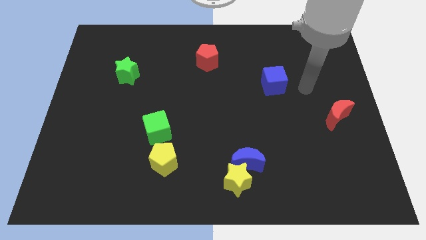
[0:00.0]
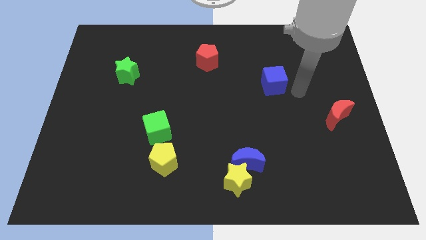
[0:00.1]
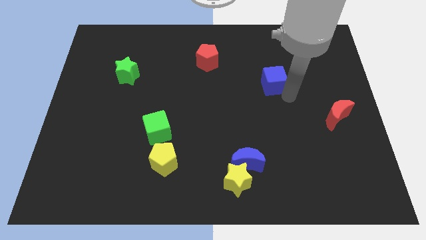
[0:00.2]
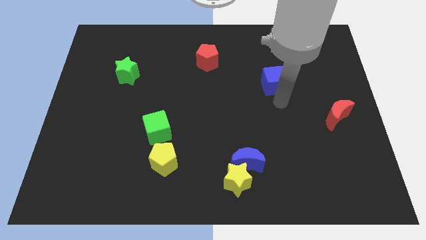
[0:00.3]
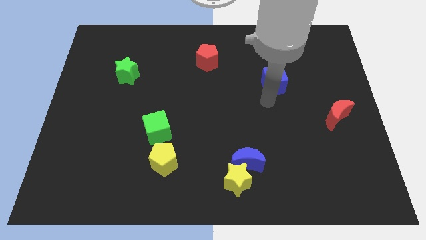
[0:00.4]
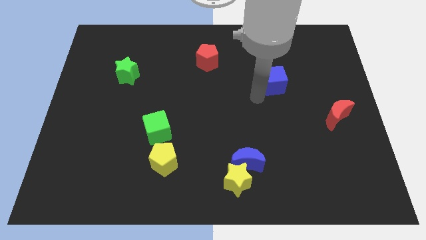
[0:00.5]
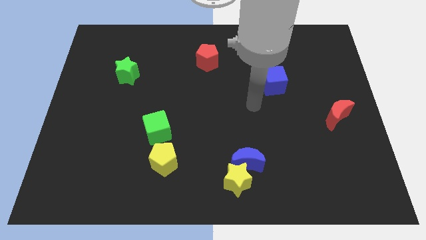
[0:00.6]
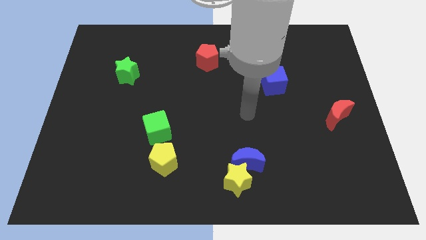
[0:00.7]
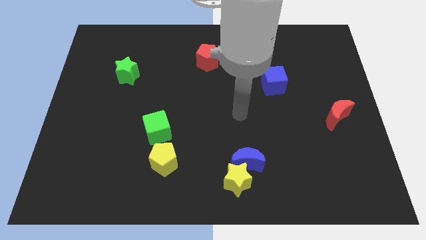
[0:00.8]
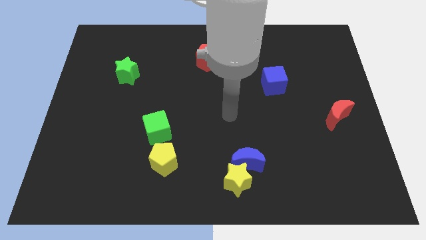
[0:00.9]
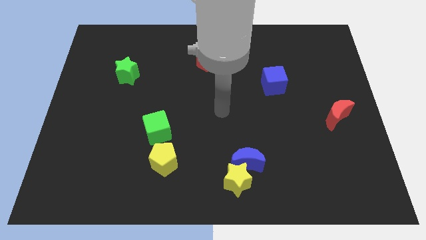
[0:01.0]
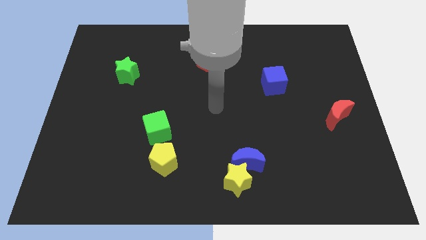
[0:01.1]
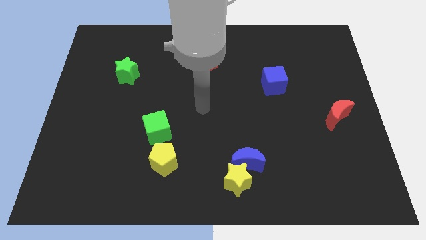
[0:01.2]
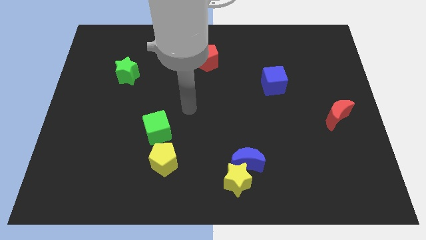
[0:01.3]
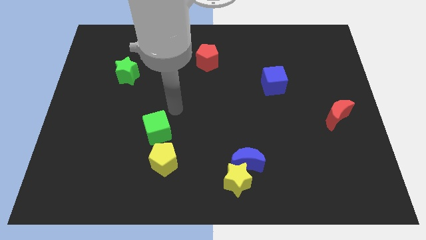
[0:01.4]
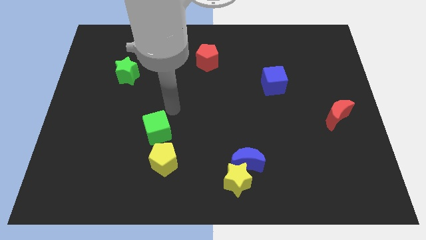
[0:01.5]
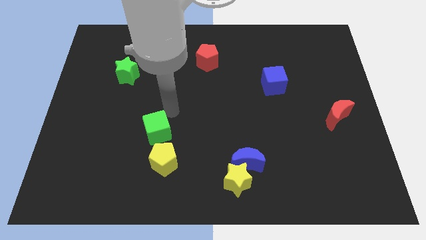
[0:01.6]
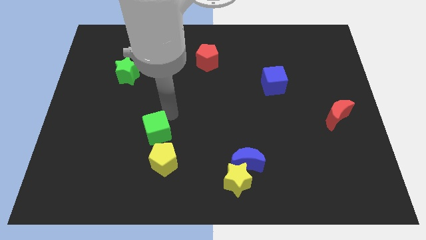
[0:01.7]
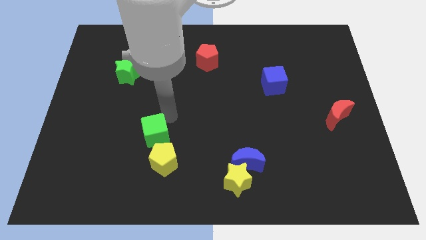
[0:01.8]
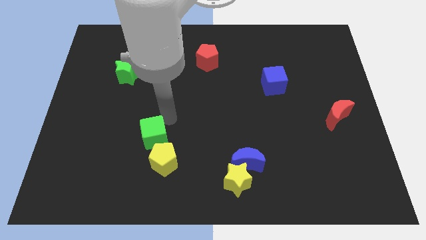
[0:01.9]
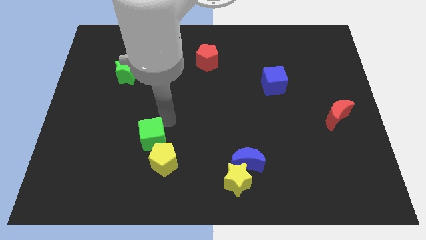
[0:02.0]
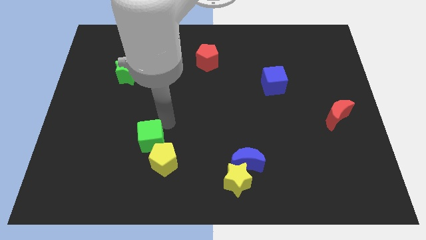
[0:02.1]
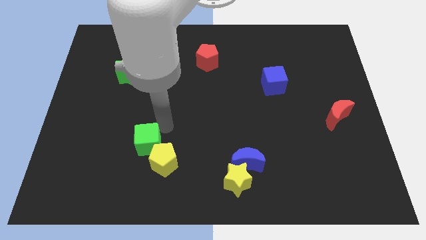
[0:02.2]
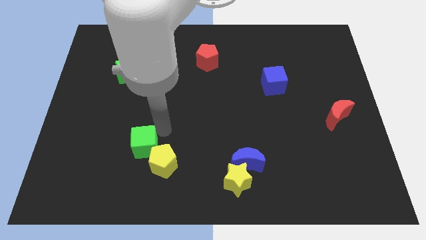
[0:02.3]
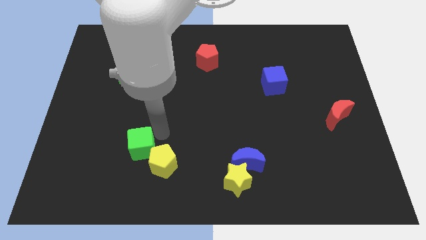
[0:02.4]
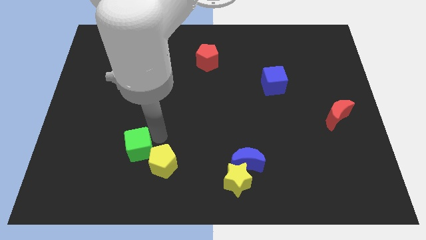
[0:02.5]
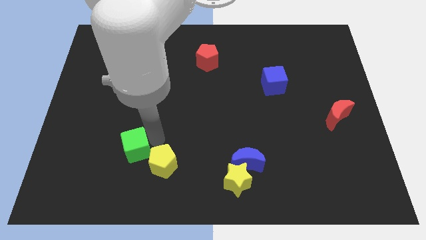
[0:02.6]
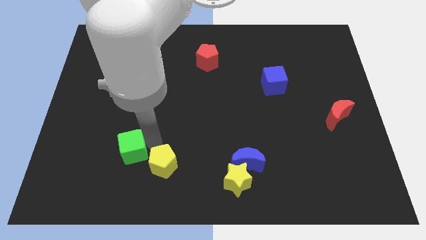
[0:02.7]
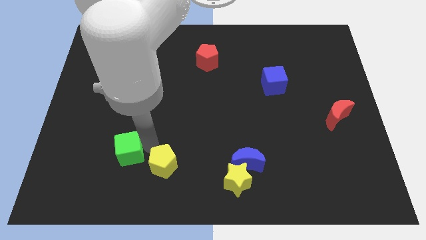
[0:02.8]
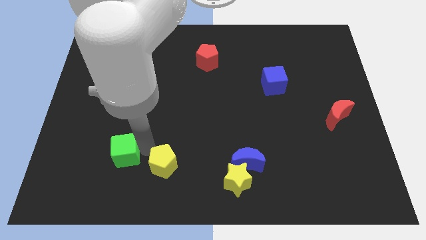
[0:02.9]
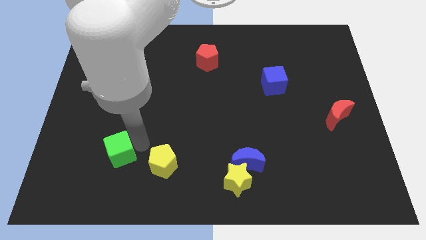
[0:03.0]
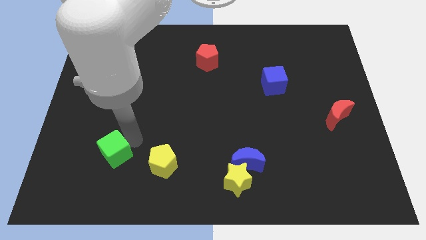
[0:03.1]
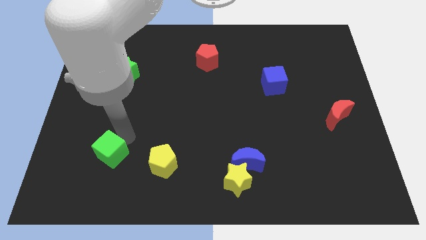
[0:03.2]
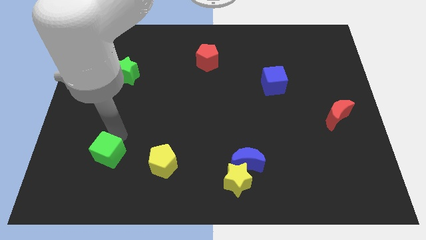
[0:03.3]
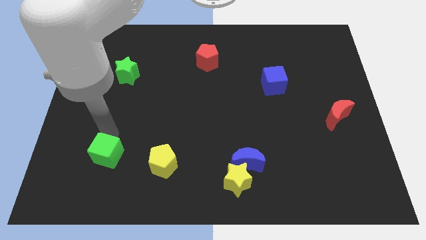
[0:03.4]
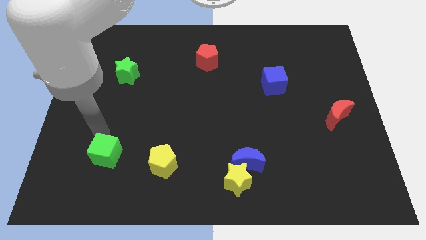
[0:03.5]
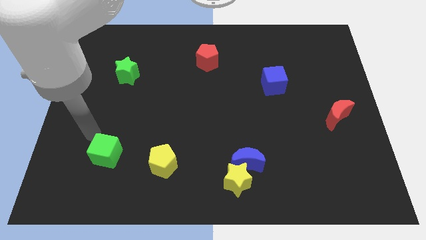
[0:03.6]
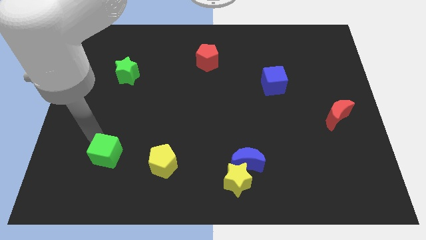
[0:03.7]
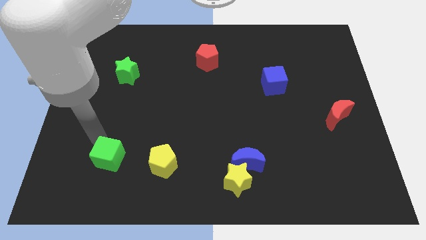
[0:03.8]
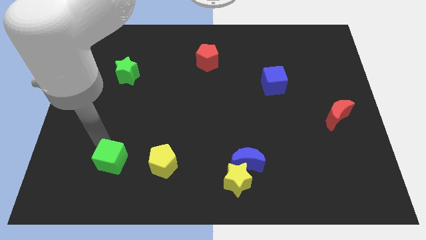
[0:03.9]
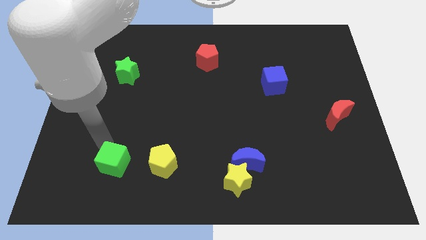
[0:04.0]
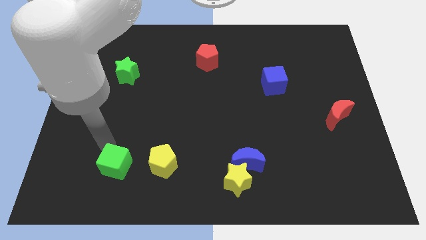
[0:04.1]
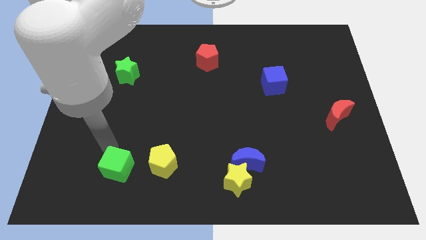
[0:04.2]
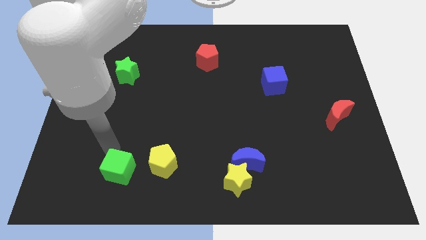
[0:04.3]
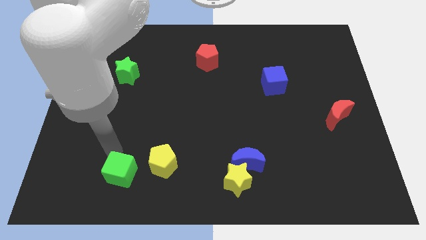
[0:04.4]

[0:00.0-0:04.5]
push the green cube to the bottom left of the yellow pentagon

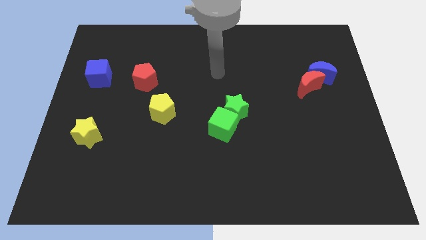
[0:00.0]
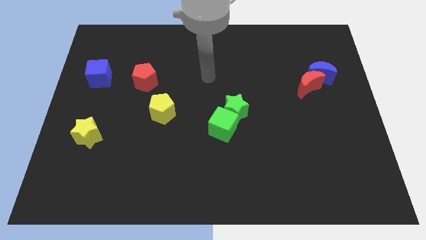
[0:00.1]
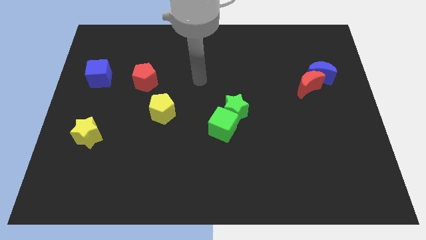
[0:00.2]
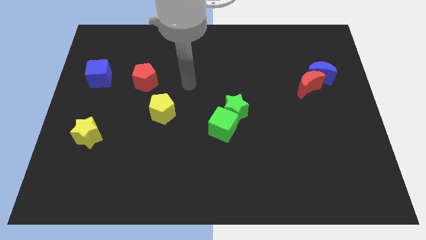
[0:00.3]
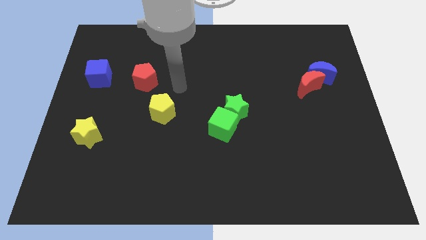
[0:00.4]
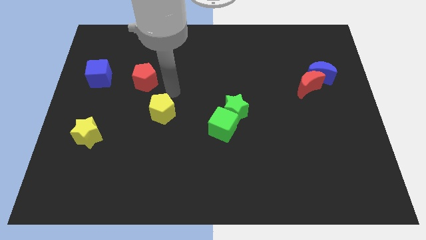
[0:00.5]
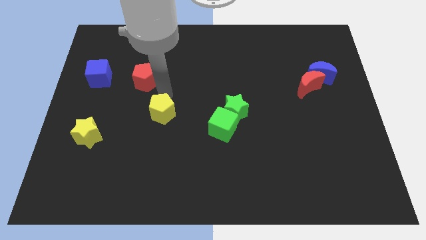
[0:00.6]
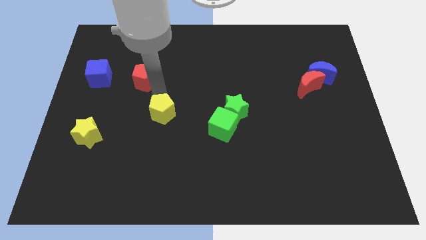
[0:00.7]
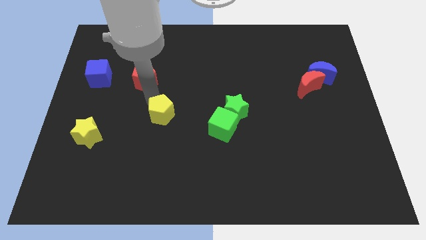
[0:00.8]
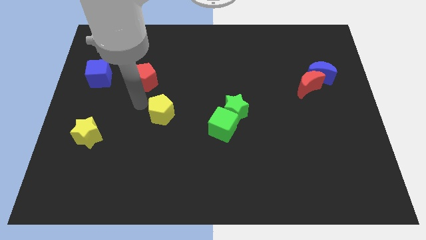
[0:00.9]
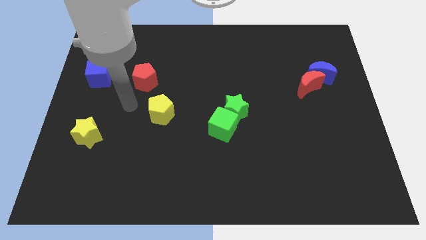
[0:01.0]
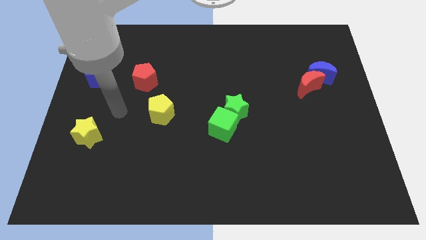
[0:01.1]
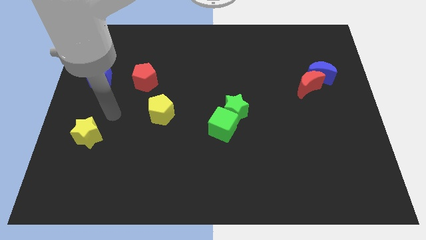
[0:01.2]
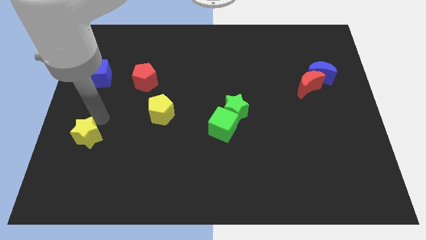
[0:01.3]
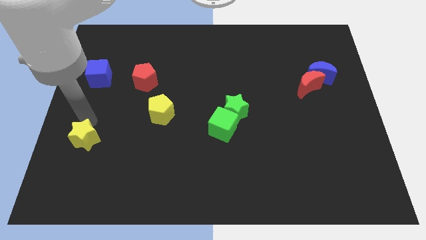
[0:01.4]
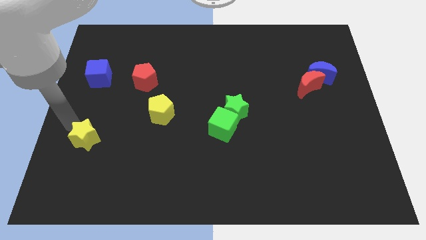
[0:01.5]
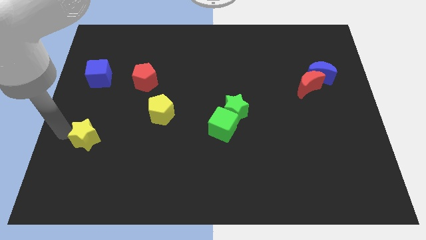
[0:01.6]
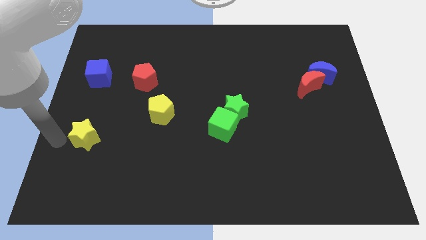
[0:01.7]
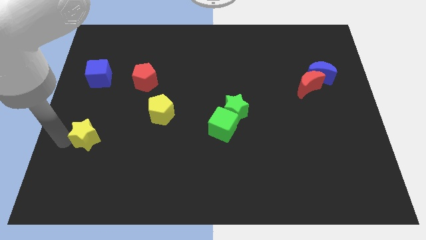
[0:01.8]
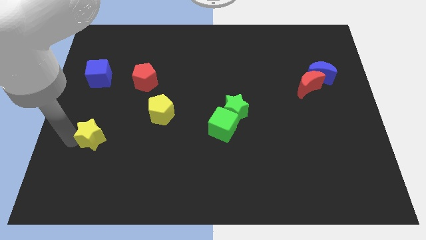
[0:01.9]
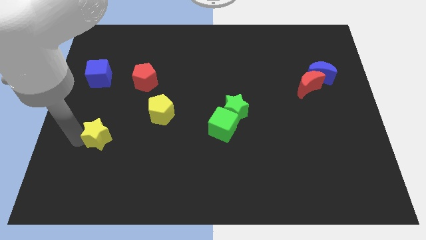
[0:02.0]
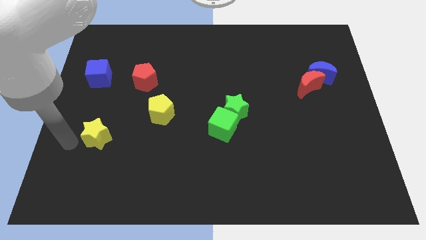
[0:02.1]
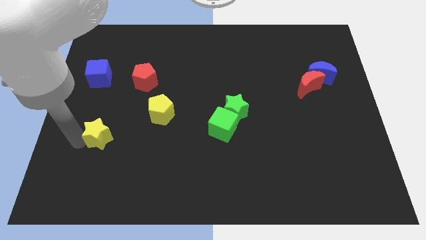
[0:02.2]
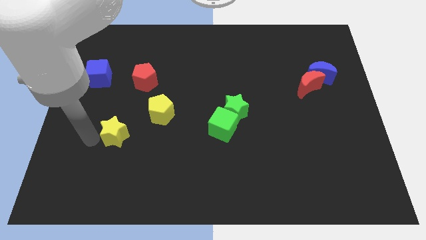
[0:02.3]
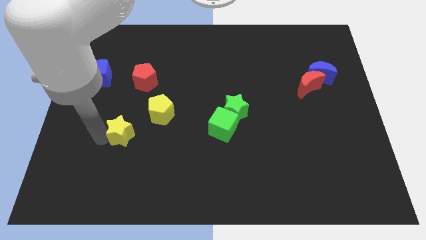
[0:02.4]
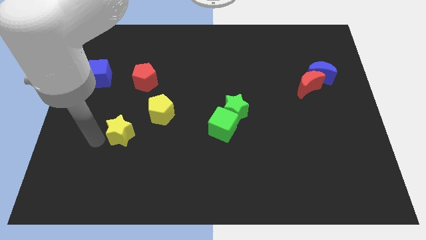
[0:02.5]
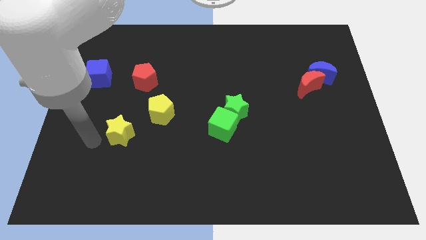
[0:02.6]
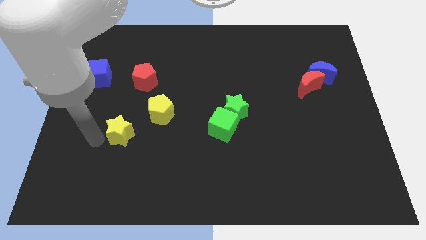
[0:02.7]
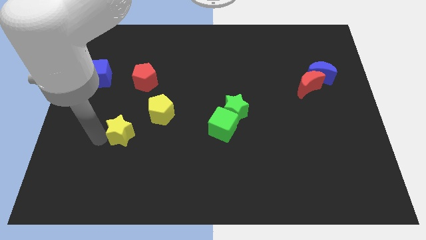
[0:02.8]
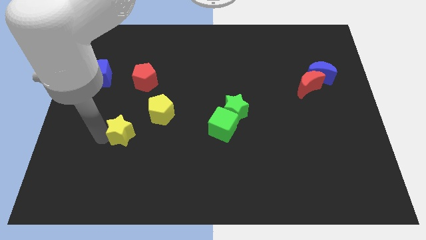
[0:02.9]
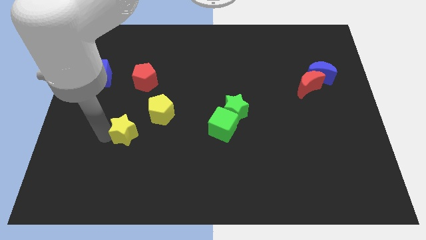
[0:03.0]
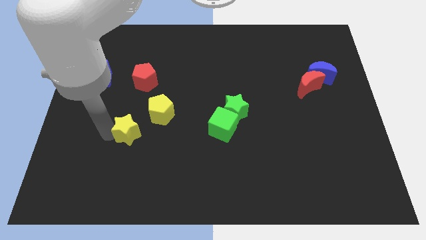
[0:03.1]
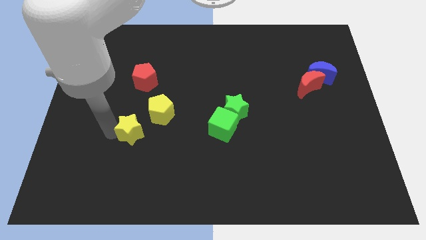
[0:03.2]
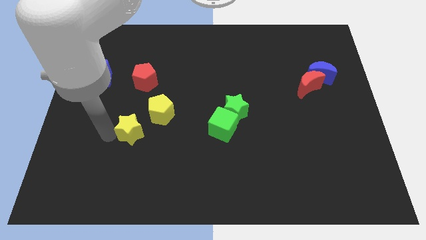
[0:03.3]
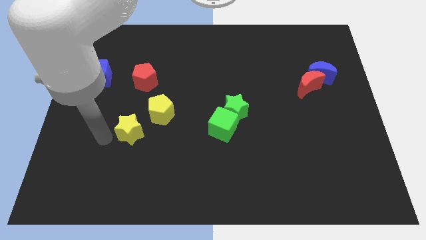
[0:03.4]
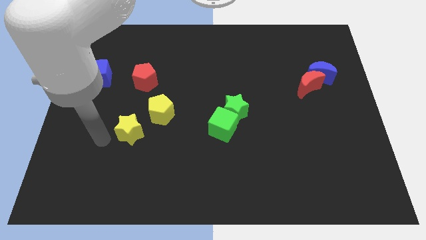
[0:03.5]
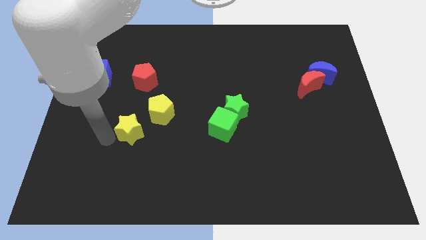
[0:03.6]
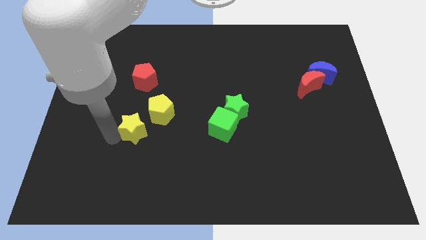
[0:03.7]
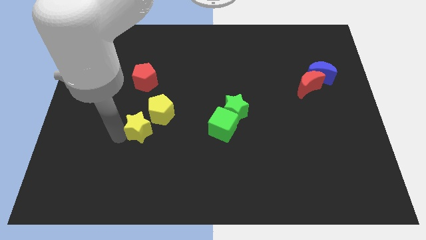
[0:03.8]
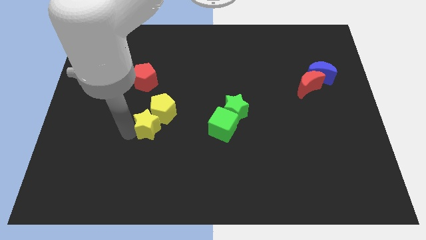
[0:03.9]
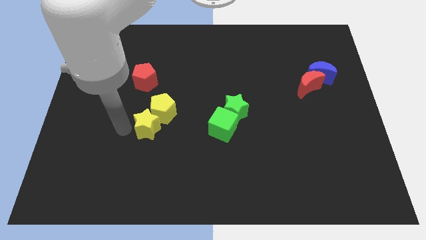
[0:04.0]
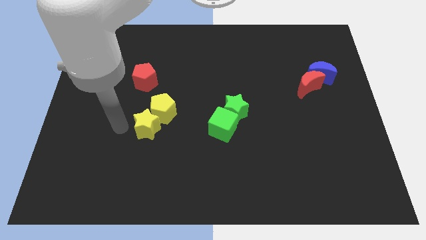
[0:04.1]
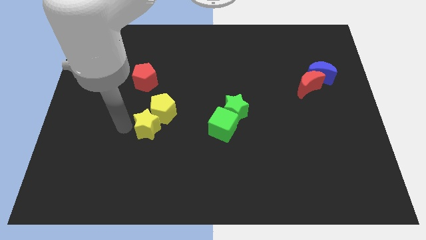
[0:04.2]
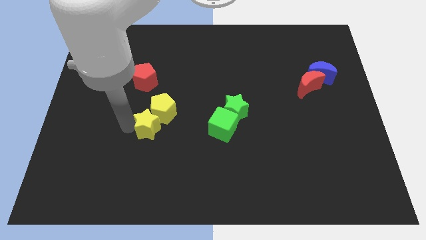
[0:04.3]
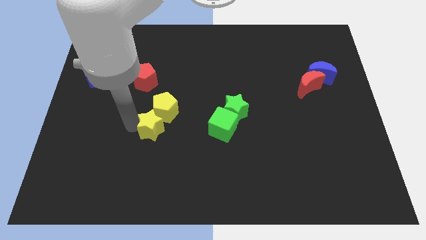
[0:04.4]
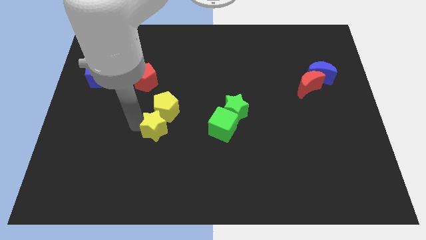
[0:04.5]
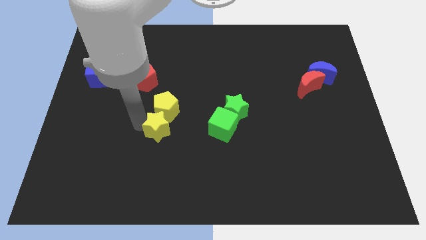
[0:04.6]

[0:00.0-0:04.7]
push the yellow star to the bottom right of the yellow pentagon
